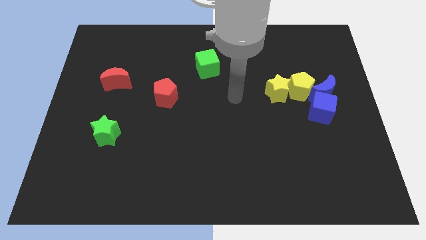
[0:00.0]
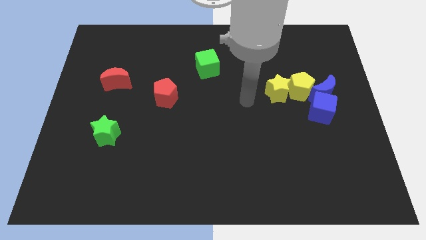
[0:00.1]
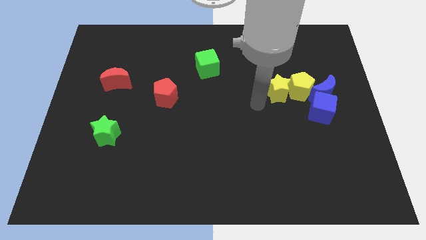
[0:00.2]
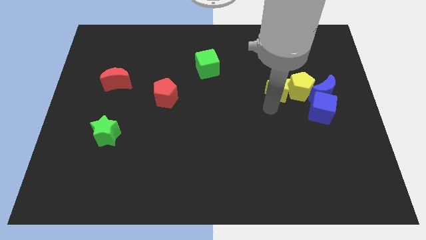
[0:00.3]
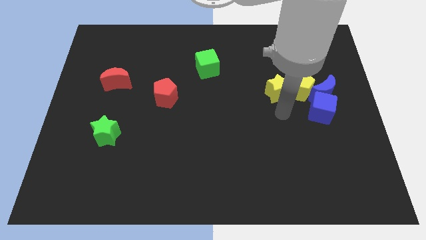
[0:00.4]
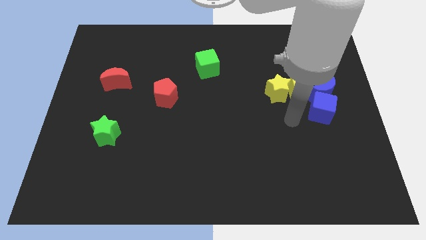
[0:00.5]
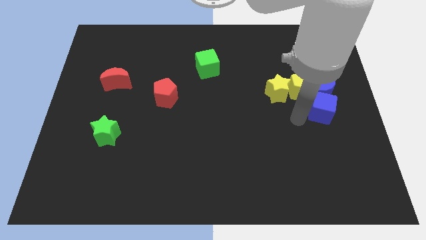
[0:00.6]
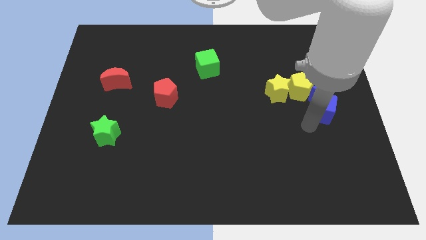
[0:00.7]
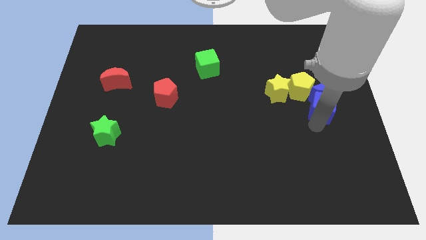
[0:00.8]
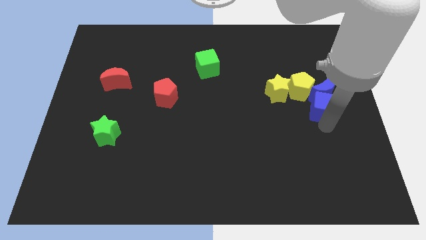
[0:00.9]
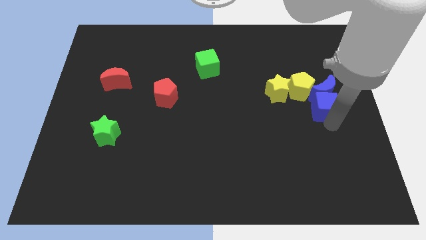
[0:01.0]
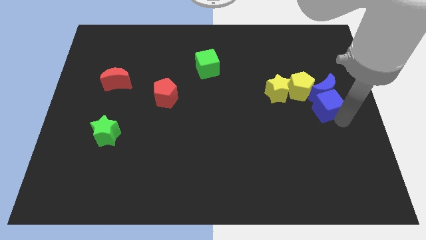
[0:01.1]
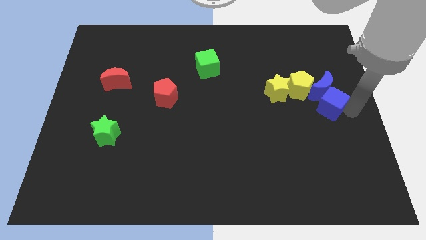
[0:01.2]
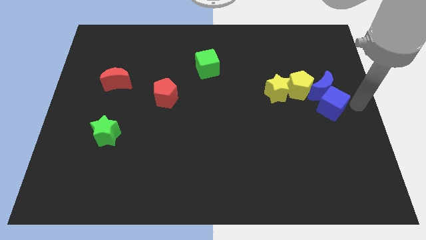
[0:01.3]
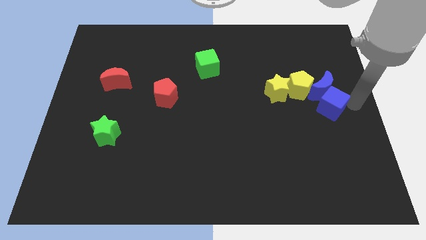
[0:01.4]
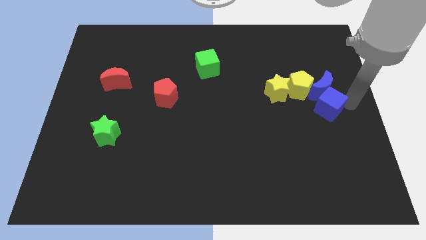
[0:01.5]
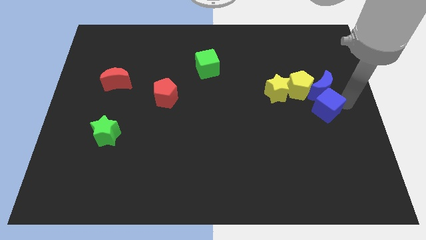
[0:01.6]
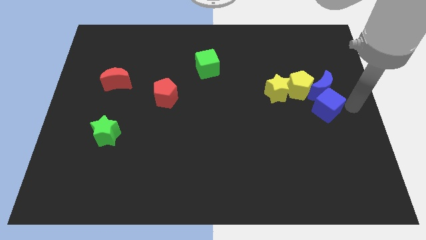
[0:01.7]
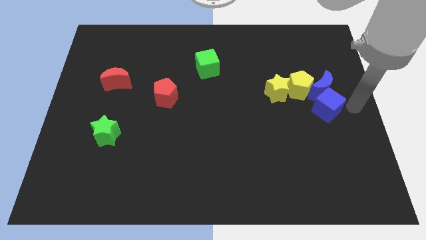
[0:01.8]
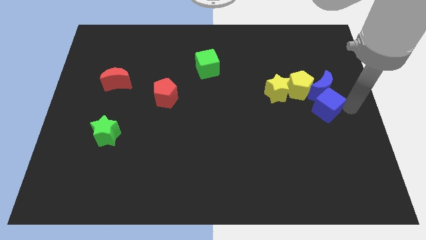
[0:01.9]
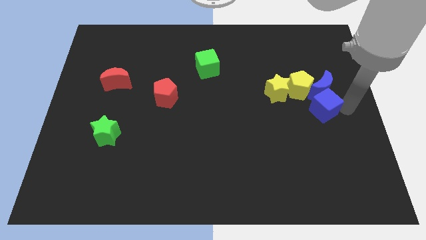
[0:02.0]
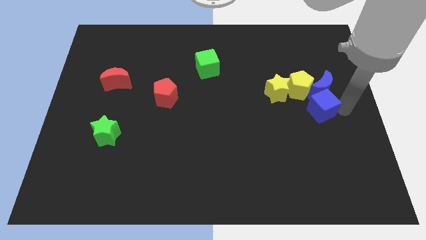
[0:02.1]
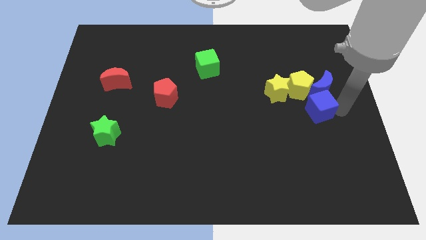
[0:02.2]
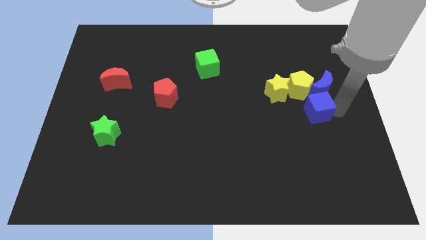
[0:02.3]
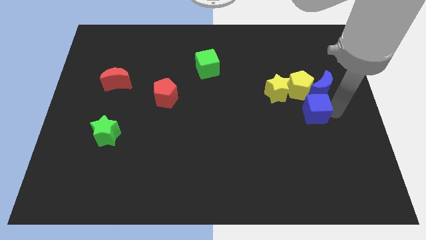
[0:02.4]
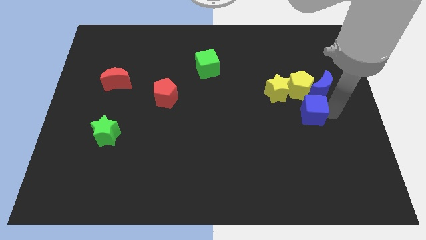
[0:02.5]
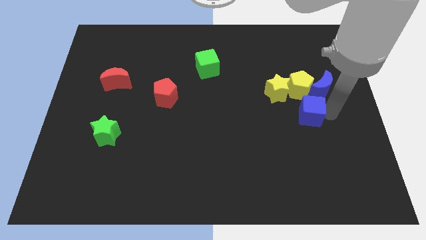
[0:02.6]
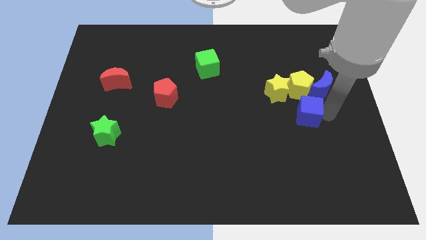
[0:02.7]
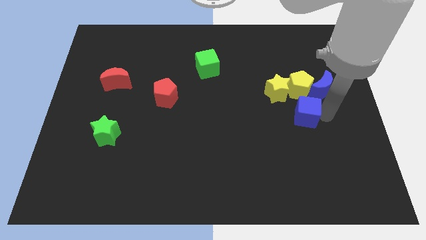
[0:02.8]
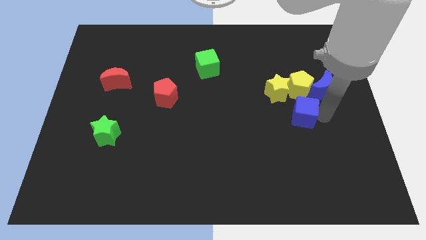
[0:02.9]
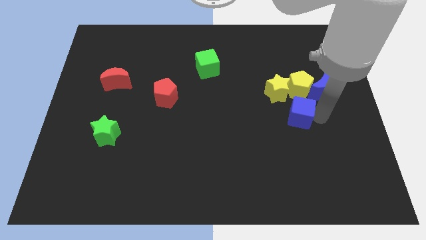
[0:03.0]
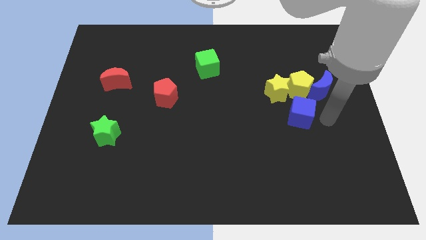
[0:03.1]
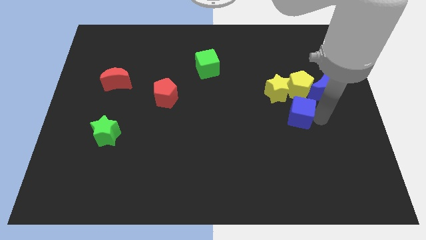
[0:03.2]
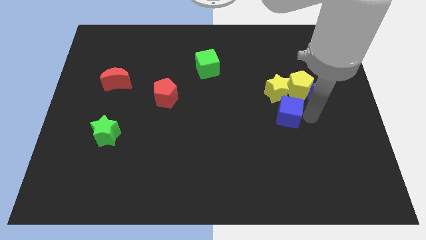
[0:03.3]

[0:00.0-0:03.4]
push the blue cube a little bit left

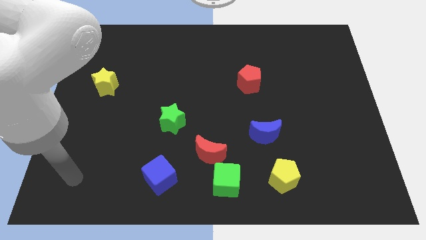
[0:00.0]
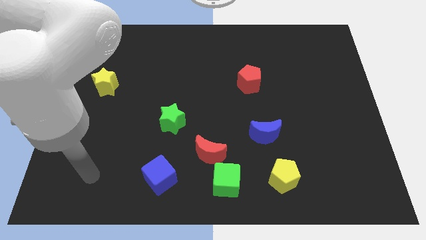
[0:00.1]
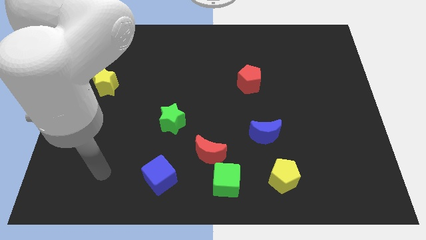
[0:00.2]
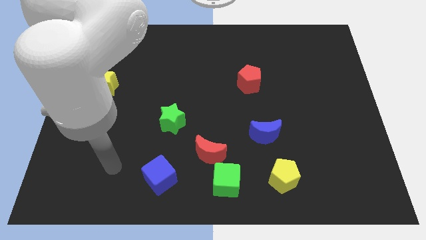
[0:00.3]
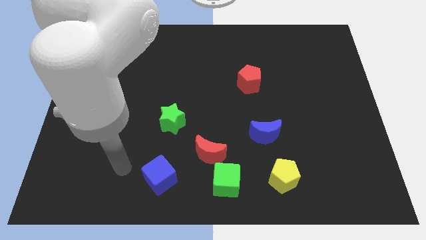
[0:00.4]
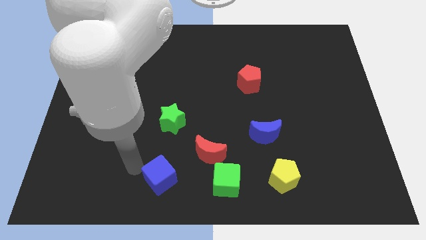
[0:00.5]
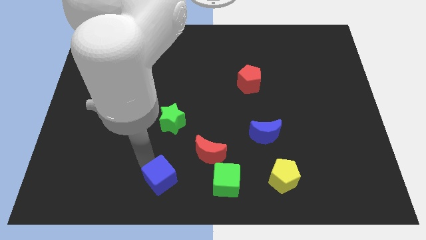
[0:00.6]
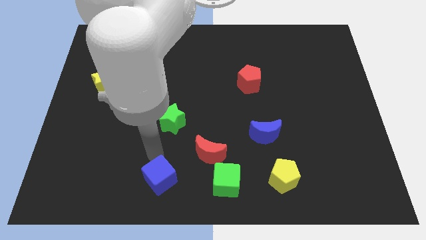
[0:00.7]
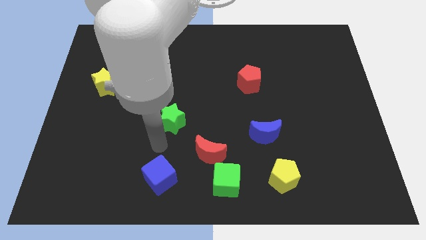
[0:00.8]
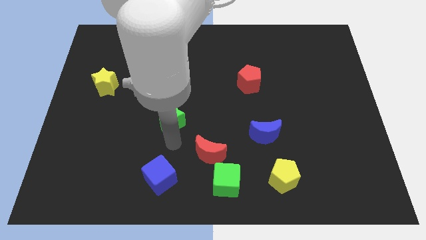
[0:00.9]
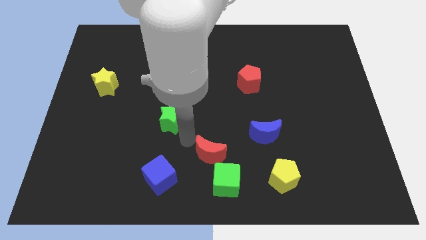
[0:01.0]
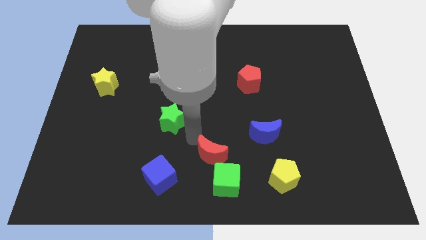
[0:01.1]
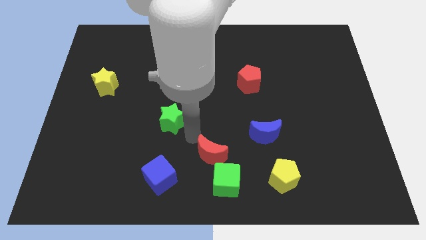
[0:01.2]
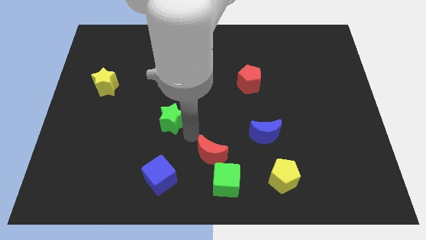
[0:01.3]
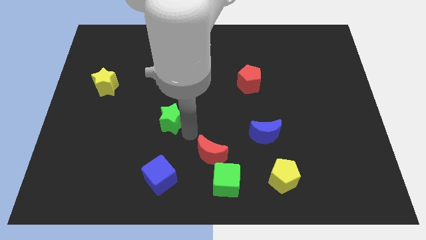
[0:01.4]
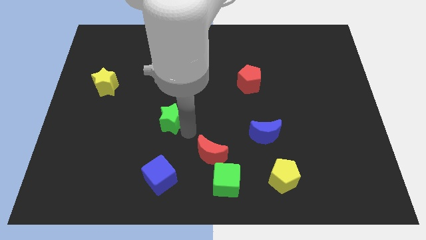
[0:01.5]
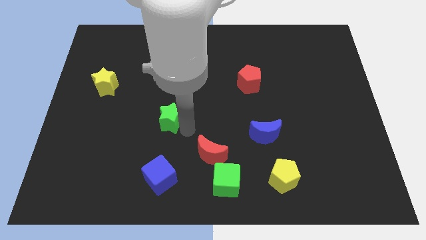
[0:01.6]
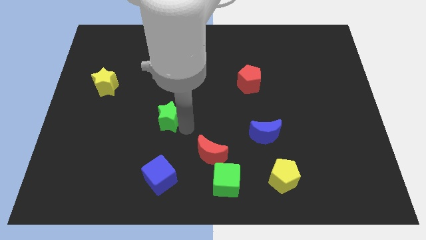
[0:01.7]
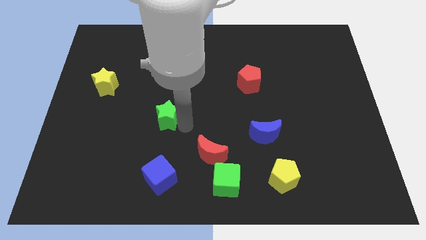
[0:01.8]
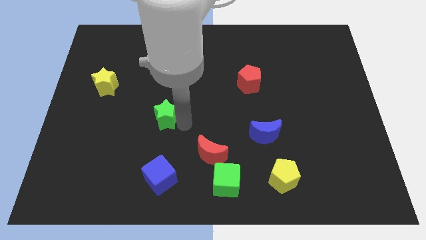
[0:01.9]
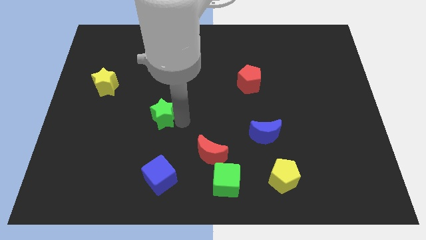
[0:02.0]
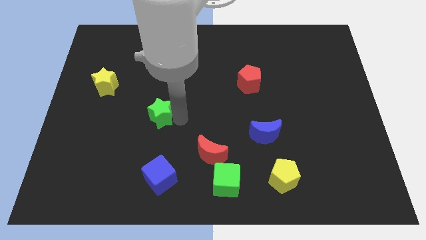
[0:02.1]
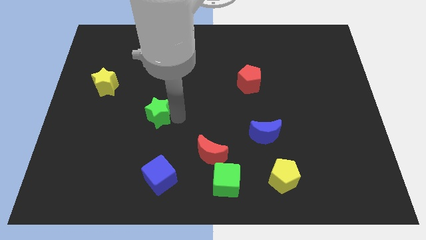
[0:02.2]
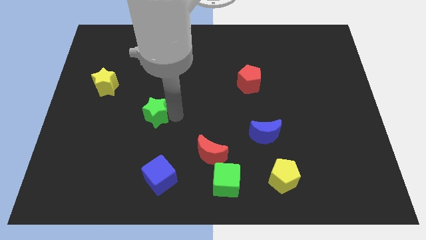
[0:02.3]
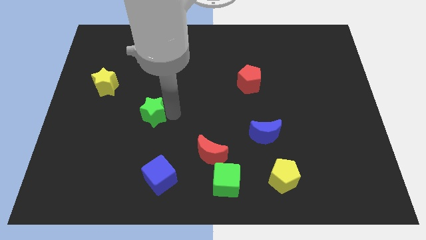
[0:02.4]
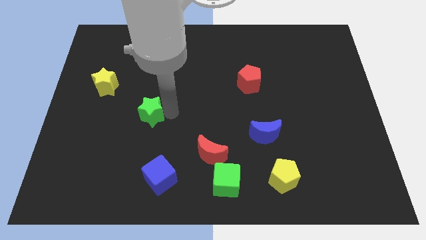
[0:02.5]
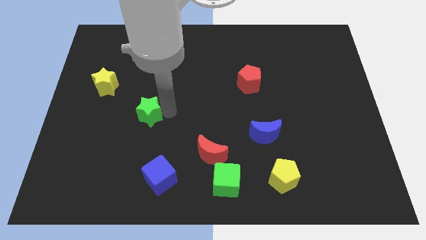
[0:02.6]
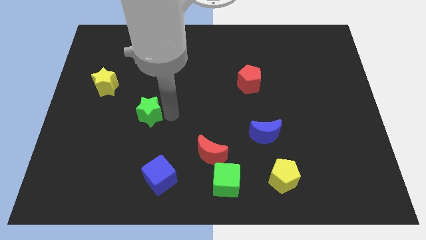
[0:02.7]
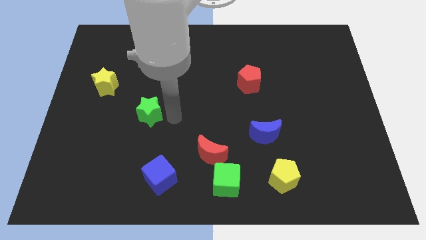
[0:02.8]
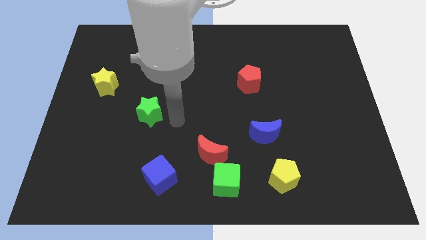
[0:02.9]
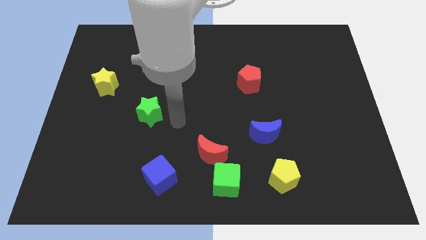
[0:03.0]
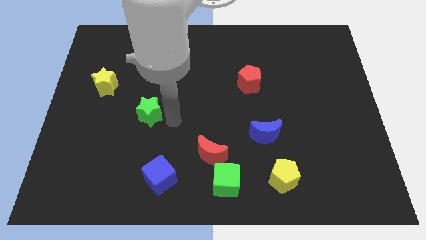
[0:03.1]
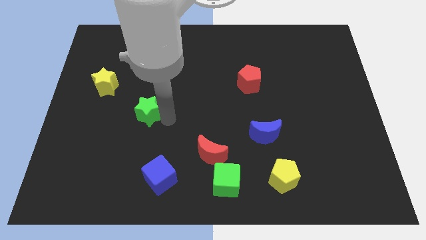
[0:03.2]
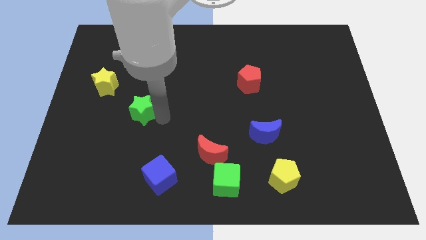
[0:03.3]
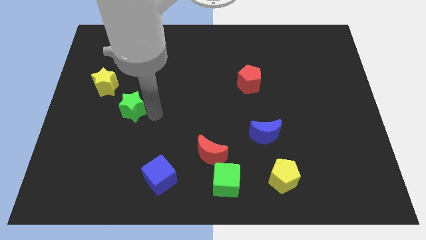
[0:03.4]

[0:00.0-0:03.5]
slightly move the green star left

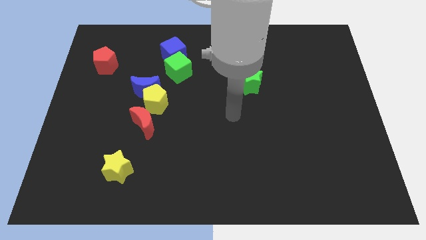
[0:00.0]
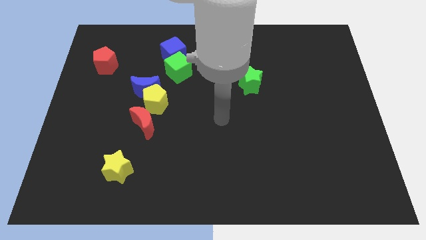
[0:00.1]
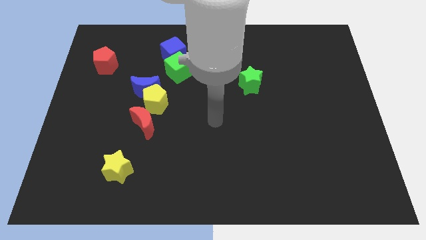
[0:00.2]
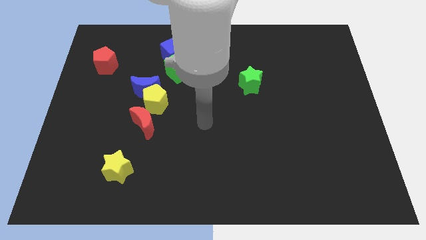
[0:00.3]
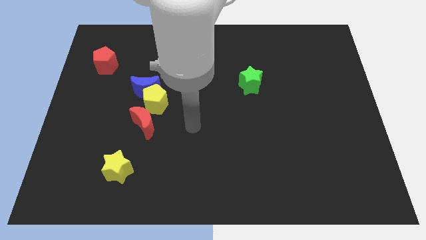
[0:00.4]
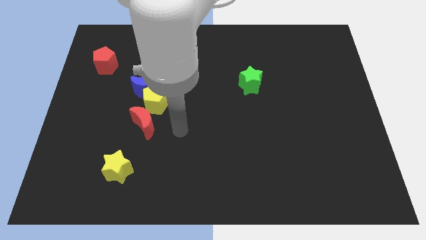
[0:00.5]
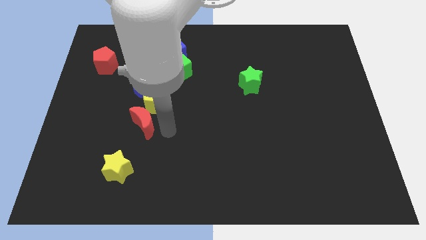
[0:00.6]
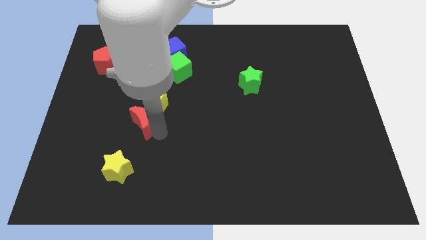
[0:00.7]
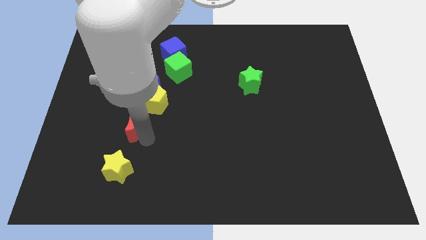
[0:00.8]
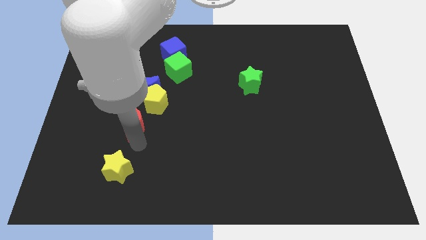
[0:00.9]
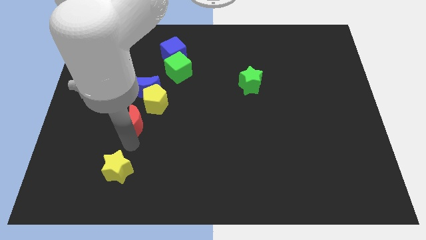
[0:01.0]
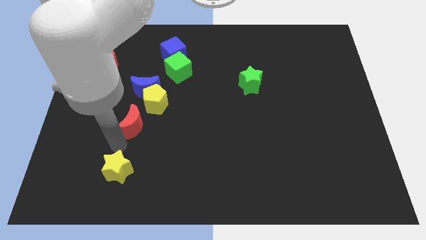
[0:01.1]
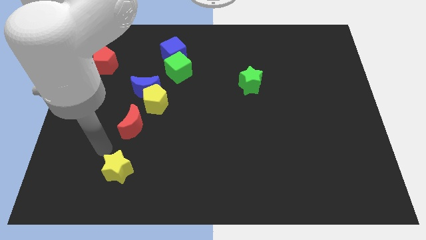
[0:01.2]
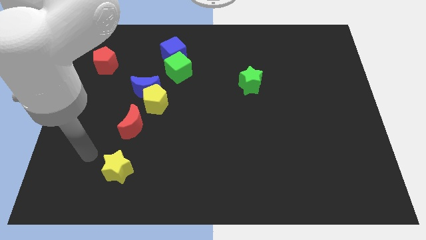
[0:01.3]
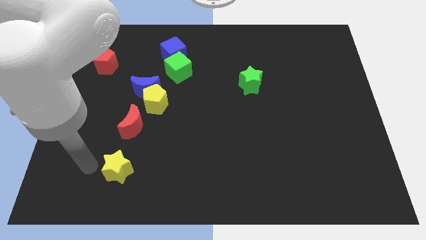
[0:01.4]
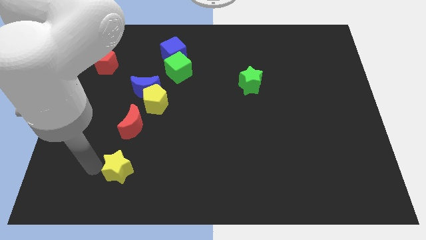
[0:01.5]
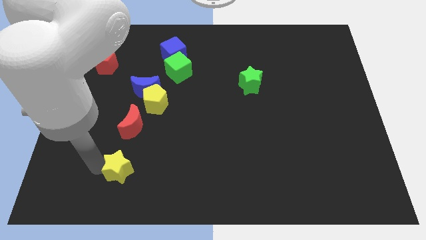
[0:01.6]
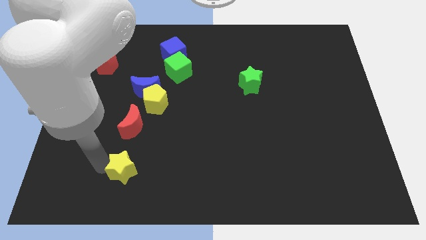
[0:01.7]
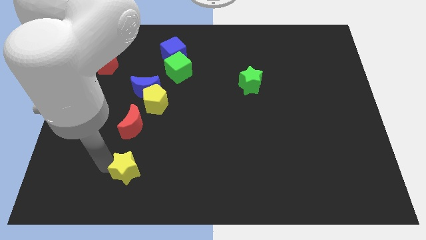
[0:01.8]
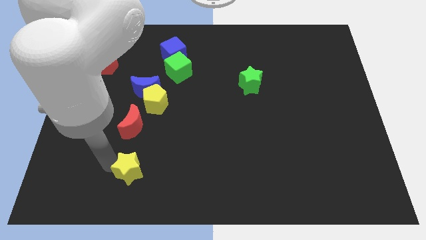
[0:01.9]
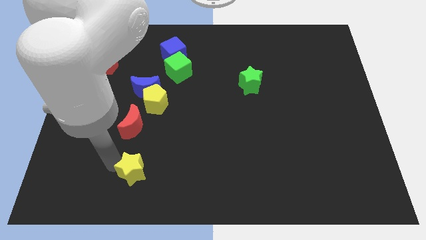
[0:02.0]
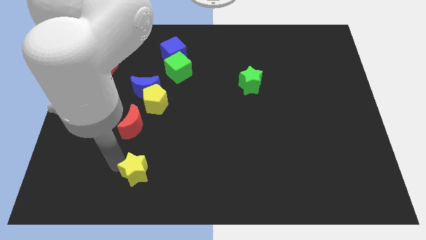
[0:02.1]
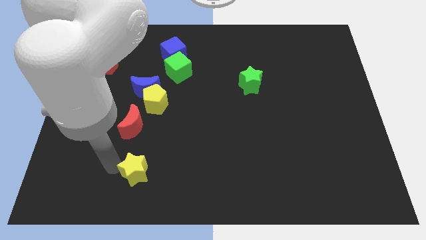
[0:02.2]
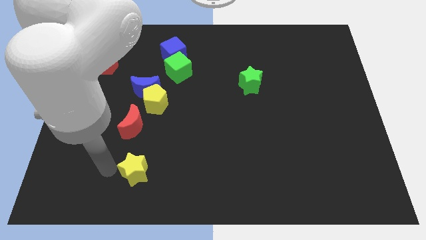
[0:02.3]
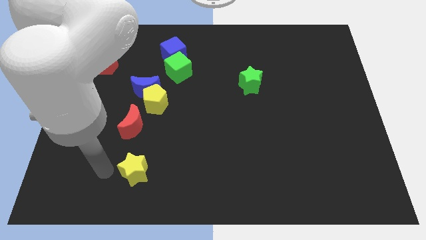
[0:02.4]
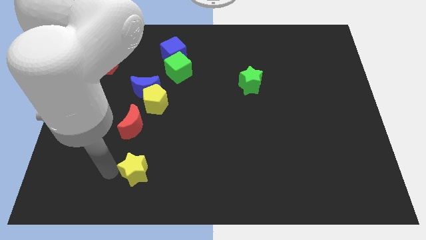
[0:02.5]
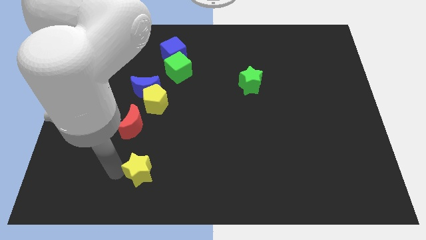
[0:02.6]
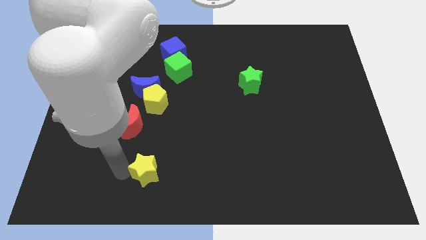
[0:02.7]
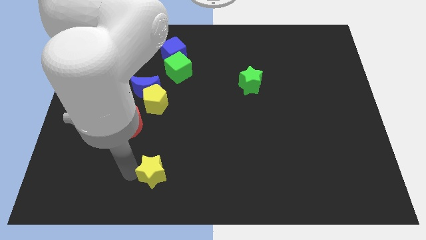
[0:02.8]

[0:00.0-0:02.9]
slightly move the yellow star to the right
